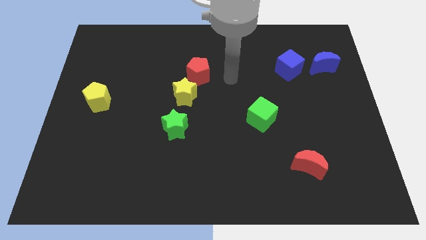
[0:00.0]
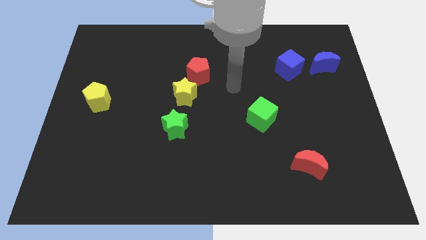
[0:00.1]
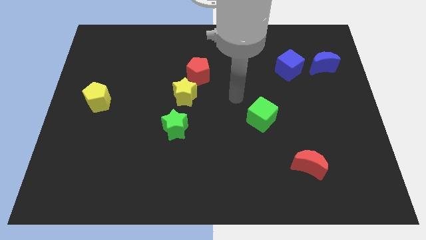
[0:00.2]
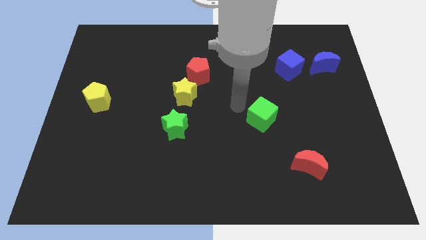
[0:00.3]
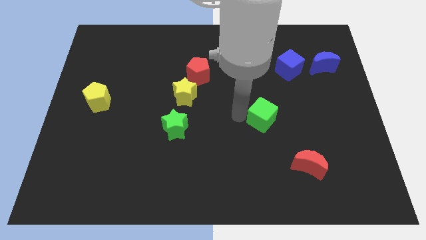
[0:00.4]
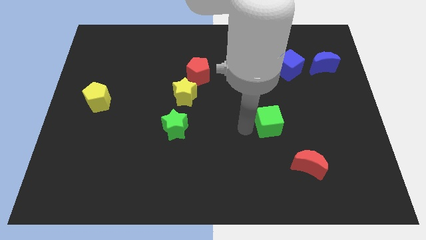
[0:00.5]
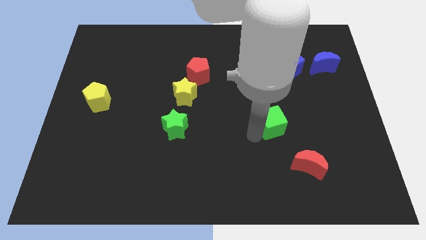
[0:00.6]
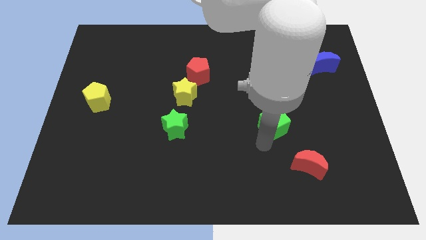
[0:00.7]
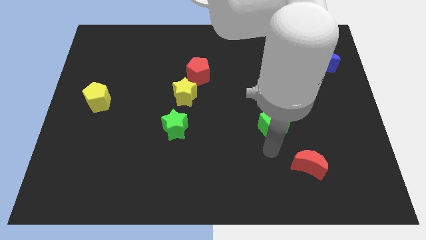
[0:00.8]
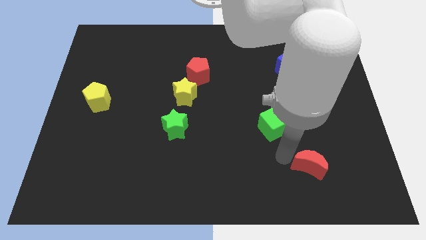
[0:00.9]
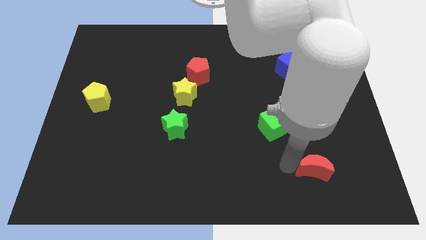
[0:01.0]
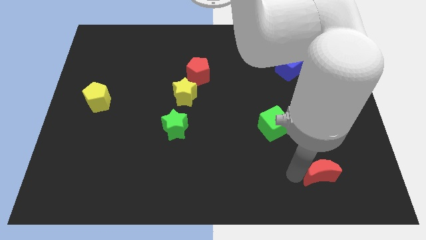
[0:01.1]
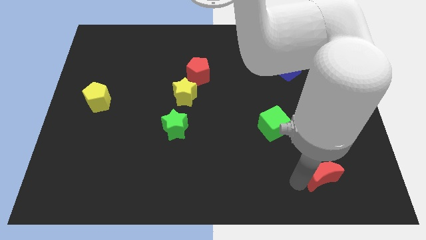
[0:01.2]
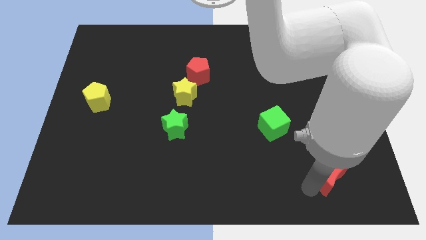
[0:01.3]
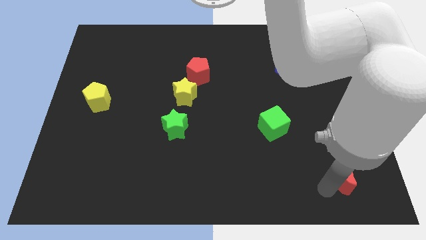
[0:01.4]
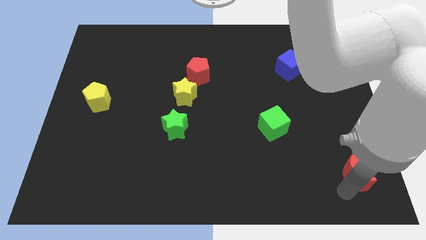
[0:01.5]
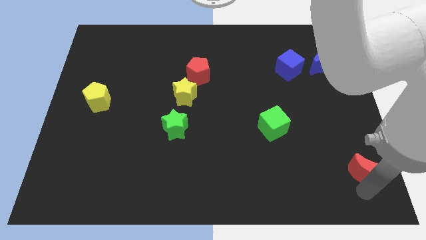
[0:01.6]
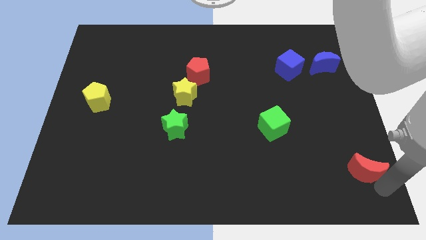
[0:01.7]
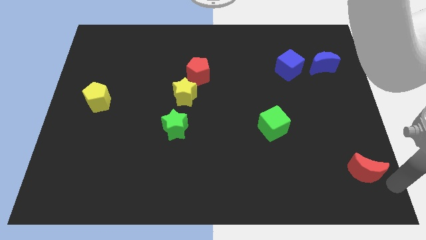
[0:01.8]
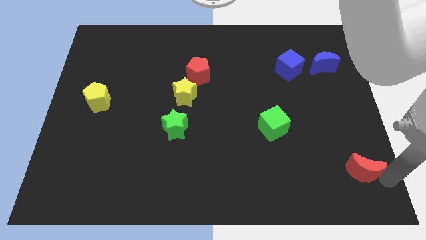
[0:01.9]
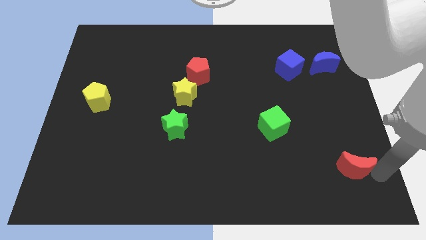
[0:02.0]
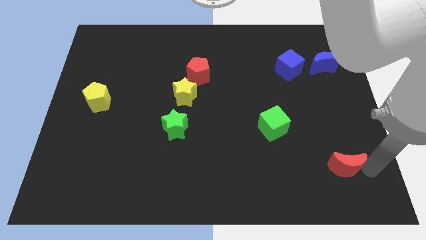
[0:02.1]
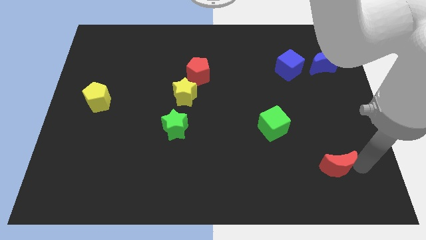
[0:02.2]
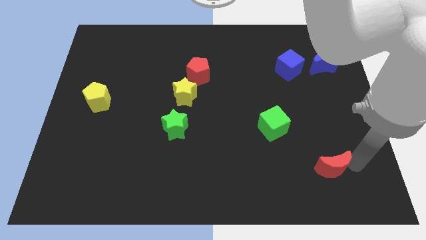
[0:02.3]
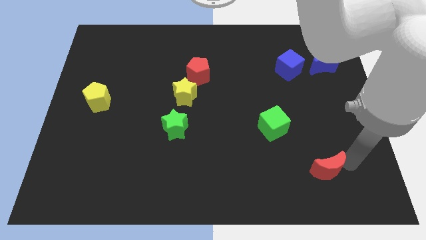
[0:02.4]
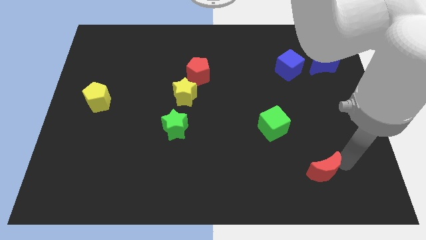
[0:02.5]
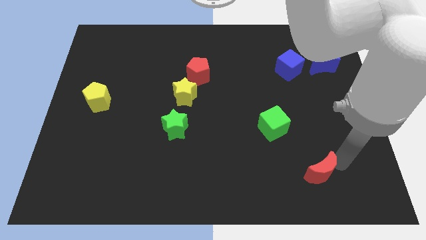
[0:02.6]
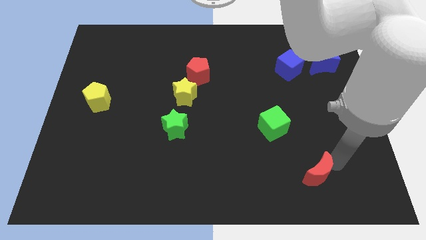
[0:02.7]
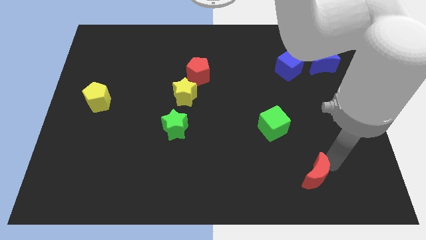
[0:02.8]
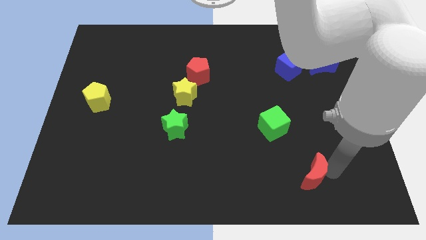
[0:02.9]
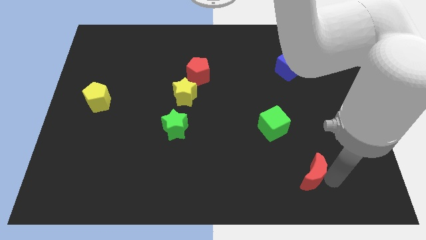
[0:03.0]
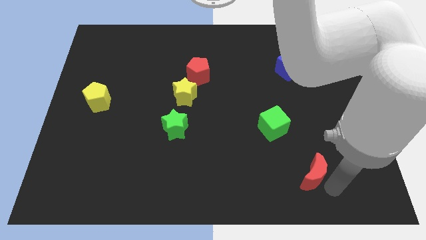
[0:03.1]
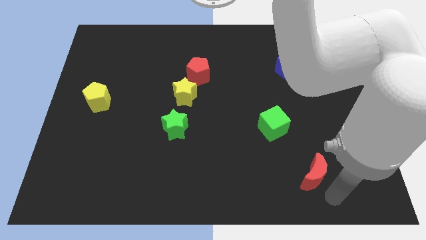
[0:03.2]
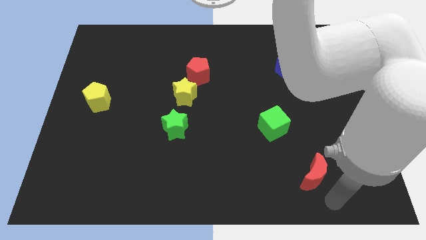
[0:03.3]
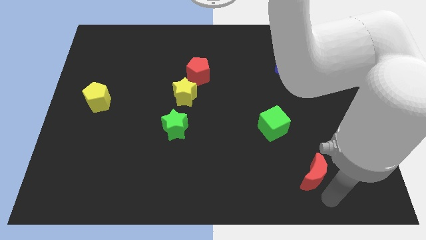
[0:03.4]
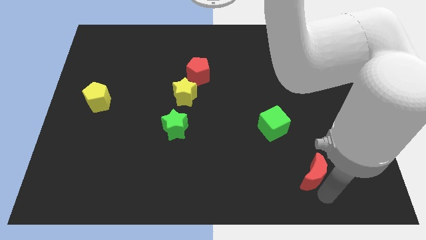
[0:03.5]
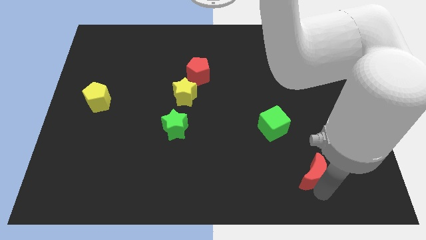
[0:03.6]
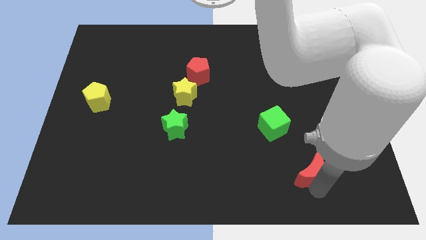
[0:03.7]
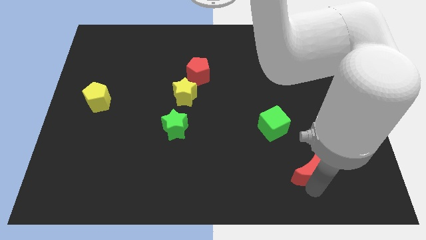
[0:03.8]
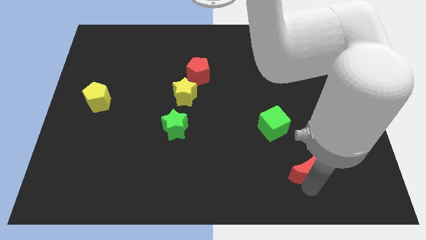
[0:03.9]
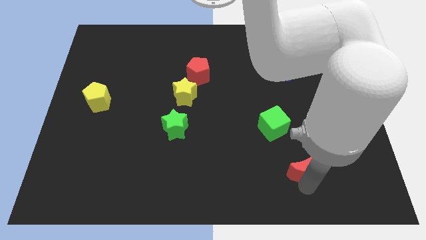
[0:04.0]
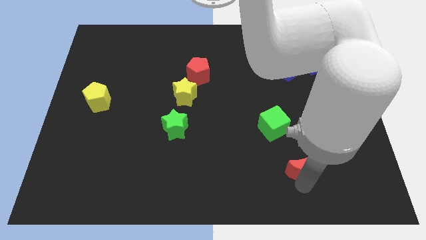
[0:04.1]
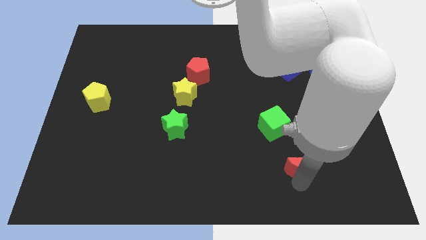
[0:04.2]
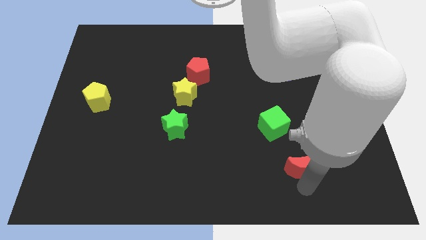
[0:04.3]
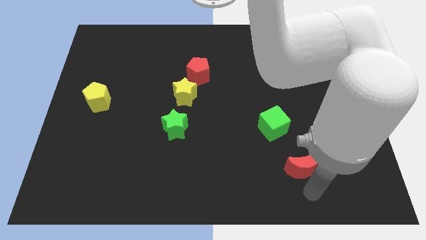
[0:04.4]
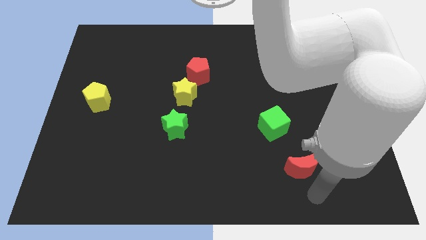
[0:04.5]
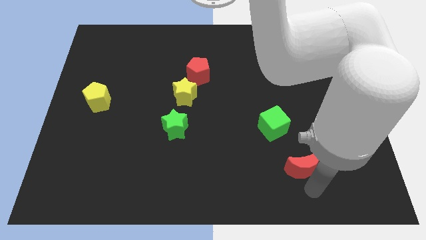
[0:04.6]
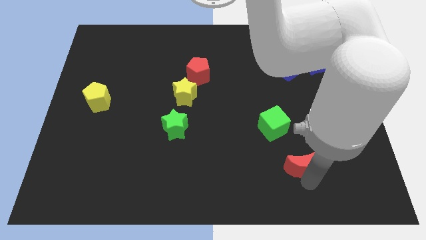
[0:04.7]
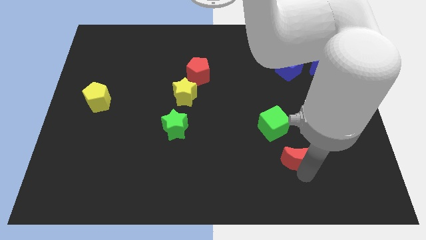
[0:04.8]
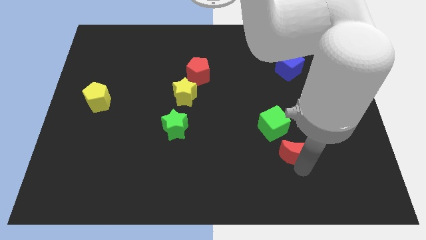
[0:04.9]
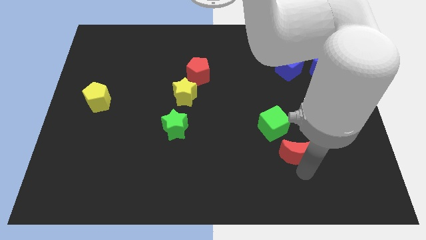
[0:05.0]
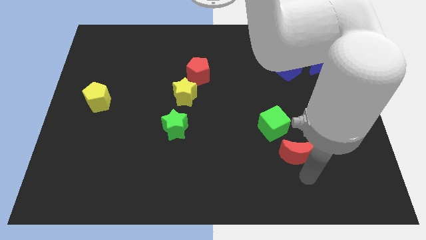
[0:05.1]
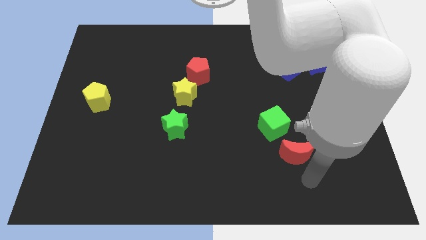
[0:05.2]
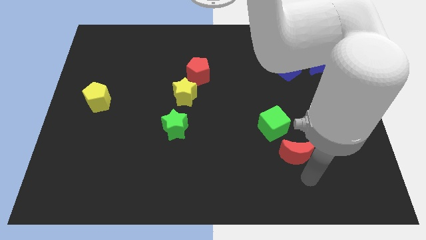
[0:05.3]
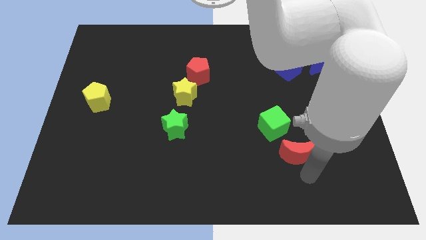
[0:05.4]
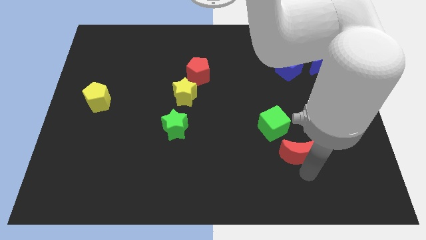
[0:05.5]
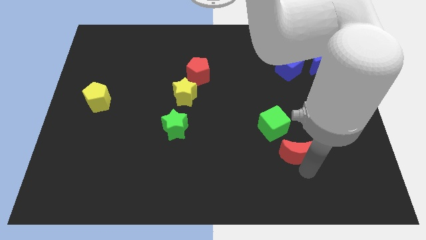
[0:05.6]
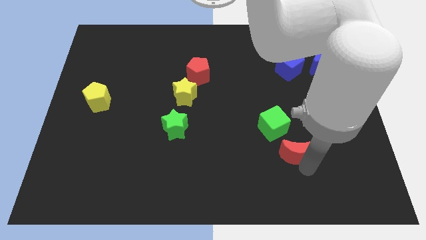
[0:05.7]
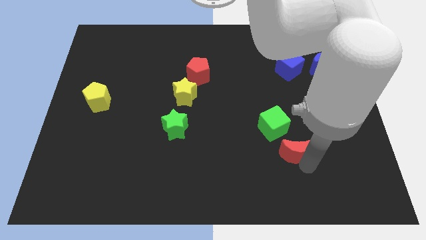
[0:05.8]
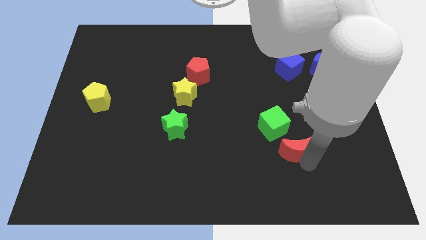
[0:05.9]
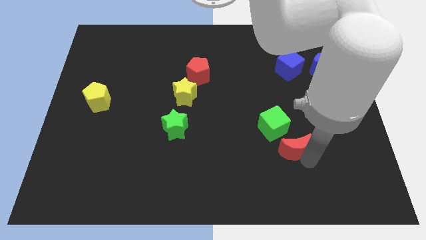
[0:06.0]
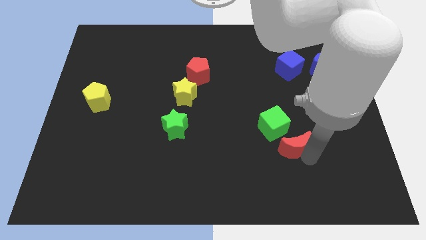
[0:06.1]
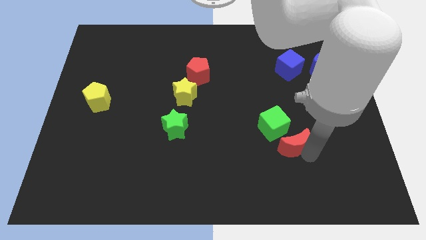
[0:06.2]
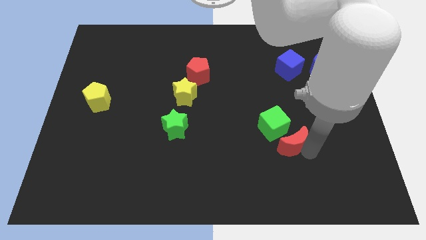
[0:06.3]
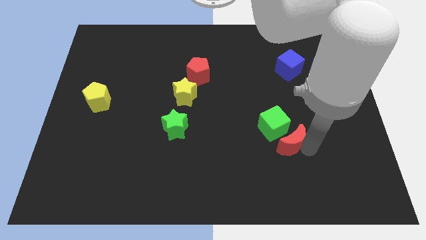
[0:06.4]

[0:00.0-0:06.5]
slide the red moon towards the green cube

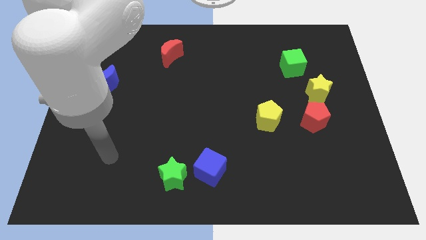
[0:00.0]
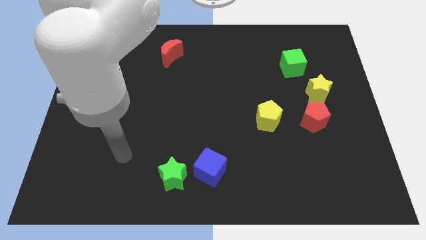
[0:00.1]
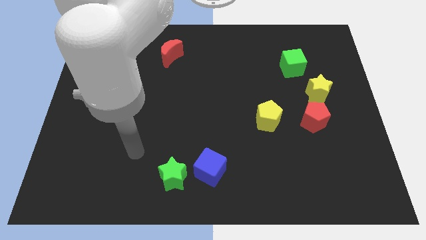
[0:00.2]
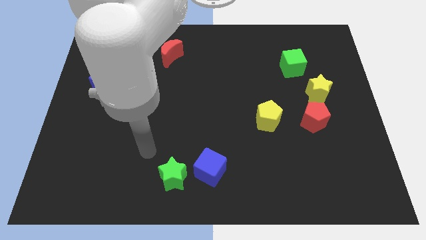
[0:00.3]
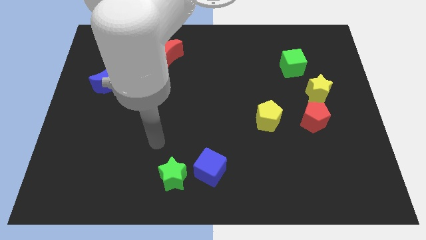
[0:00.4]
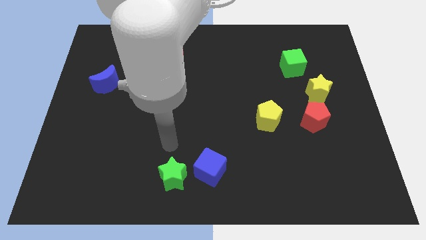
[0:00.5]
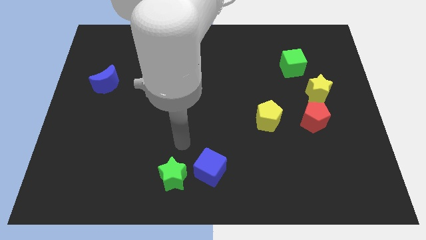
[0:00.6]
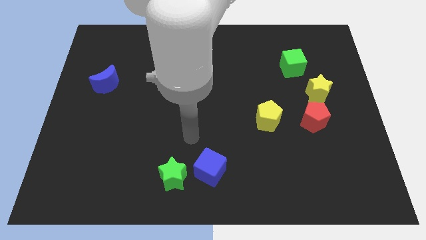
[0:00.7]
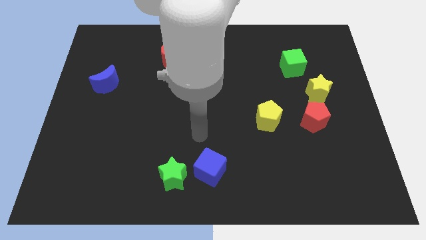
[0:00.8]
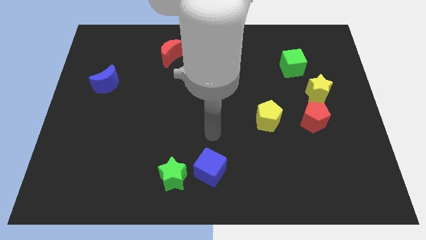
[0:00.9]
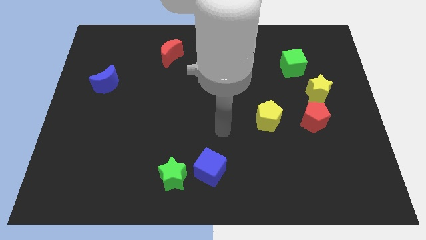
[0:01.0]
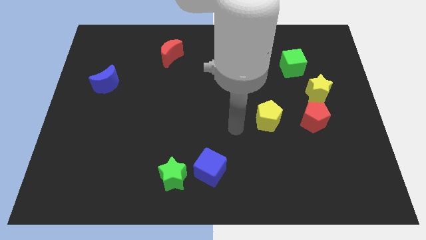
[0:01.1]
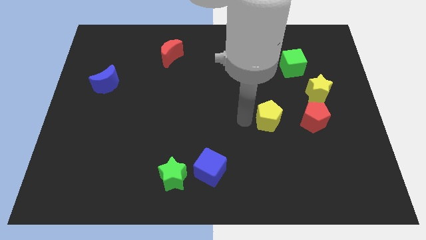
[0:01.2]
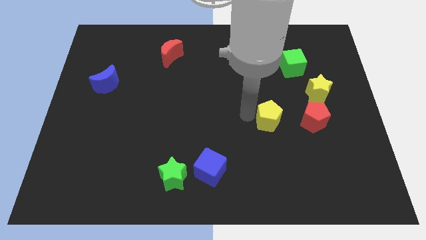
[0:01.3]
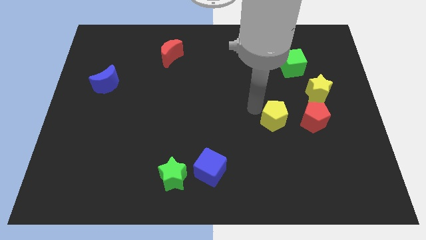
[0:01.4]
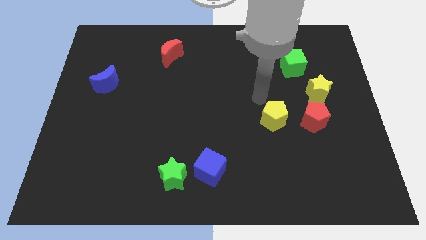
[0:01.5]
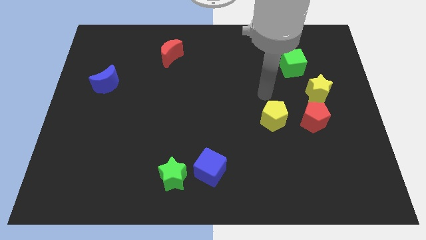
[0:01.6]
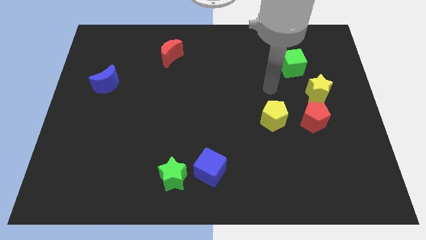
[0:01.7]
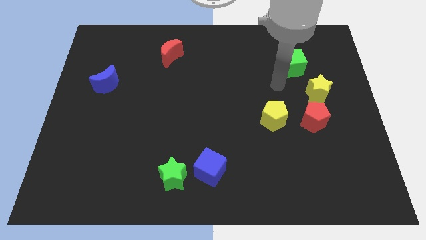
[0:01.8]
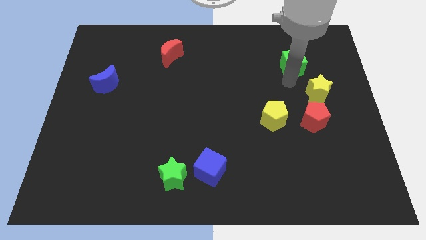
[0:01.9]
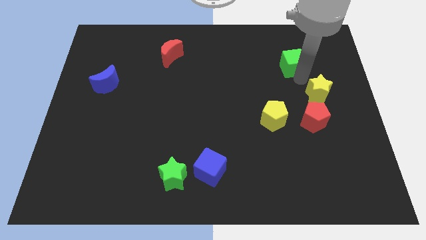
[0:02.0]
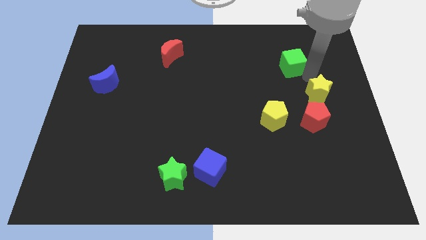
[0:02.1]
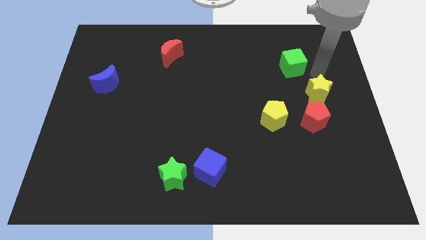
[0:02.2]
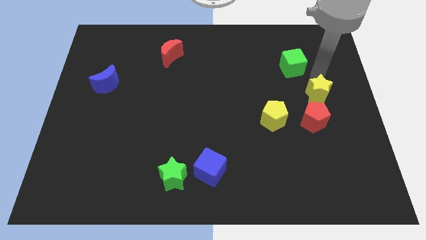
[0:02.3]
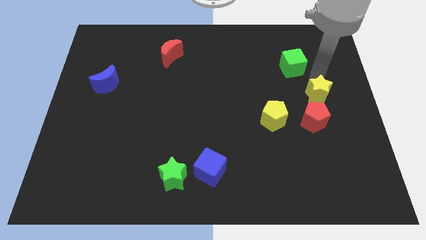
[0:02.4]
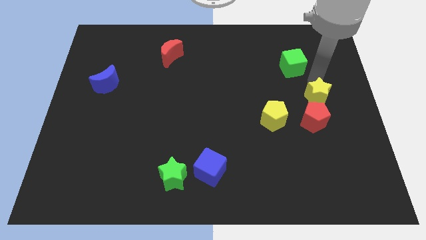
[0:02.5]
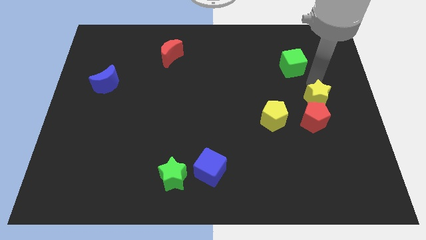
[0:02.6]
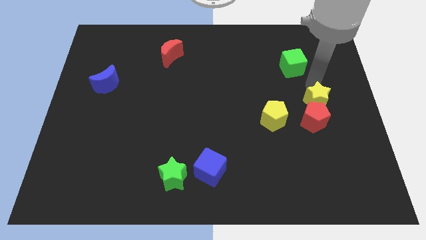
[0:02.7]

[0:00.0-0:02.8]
slide the yellow star towards the red pentagon
